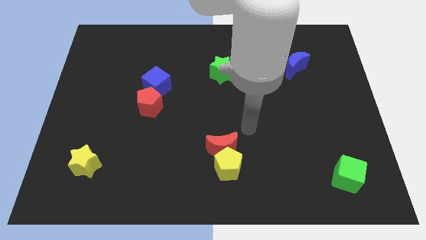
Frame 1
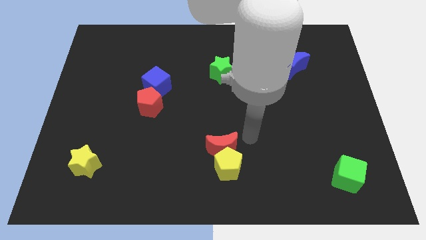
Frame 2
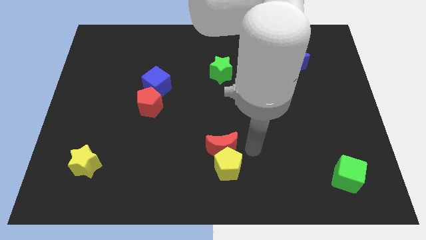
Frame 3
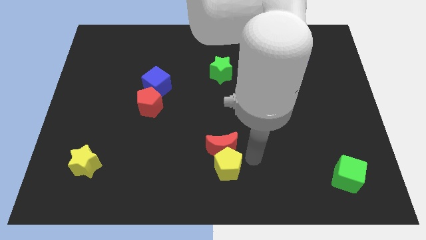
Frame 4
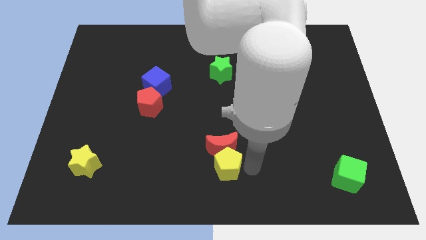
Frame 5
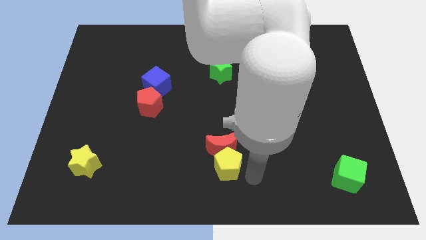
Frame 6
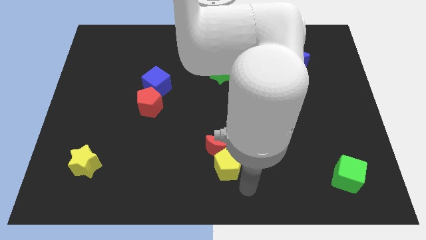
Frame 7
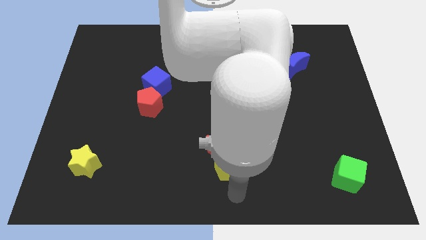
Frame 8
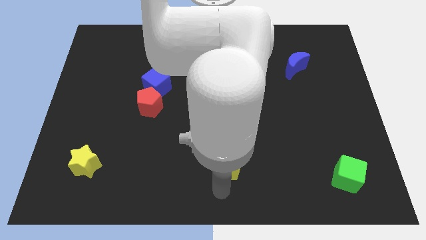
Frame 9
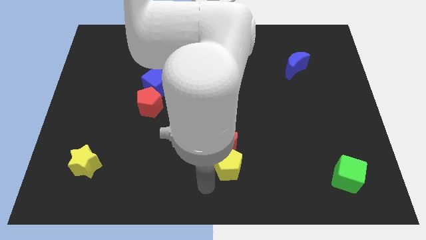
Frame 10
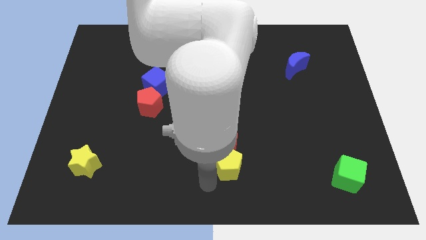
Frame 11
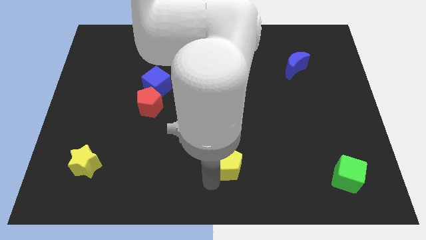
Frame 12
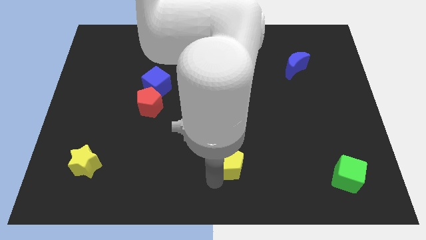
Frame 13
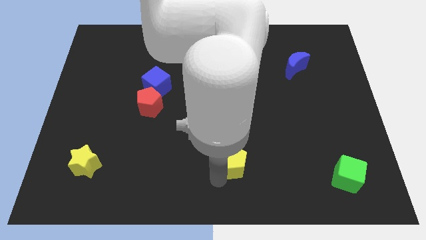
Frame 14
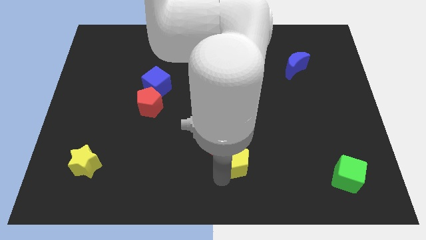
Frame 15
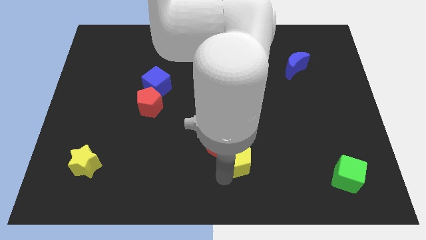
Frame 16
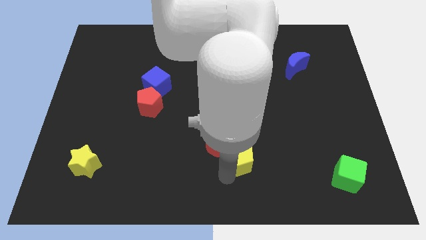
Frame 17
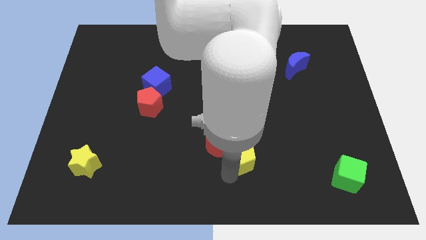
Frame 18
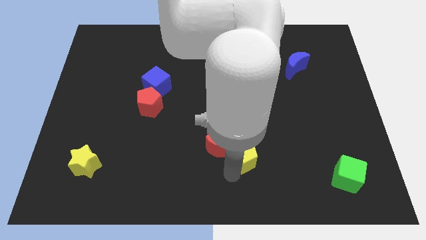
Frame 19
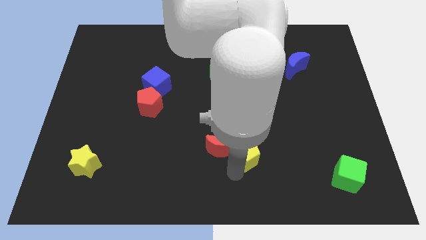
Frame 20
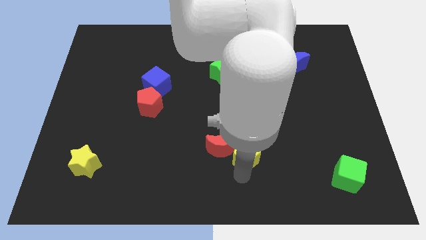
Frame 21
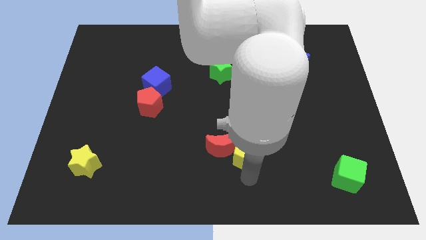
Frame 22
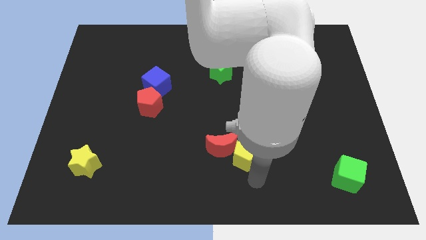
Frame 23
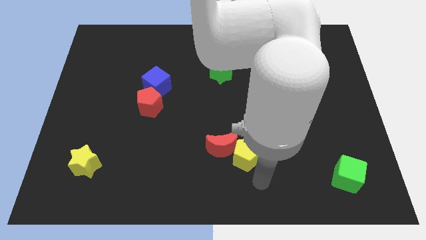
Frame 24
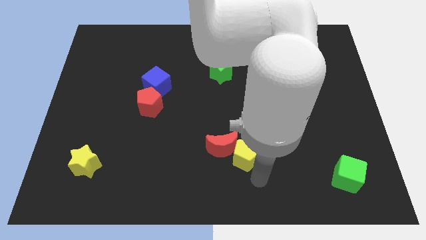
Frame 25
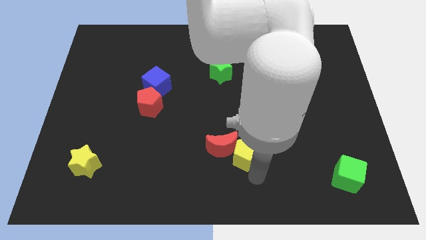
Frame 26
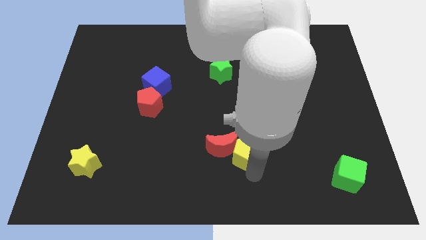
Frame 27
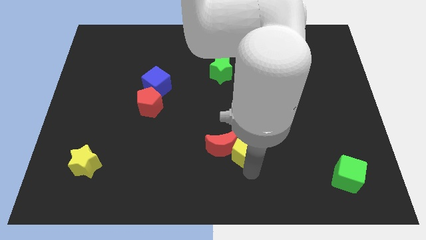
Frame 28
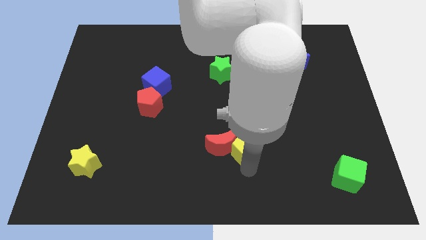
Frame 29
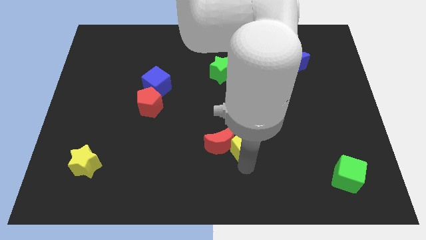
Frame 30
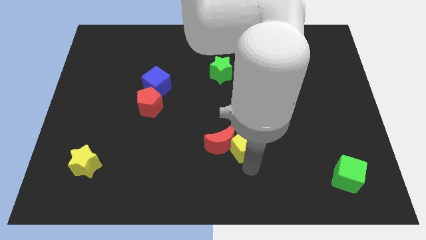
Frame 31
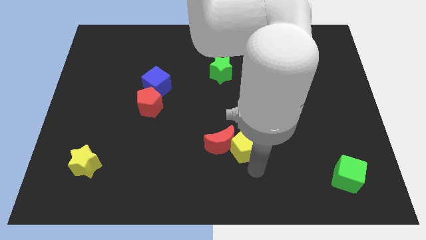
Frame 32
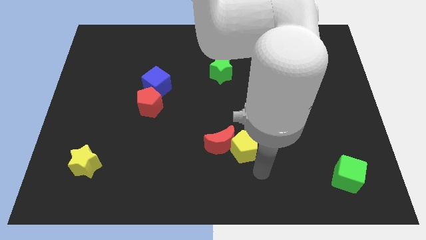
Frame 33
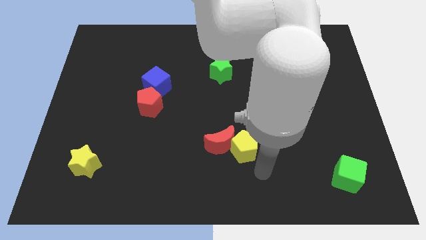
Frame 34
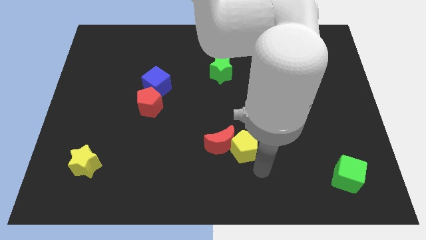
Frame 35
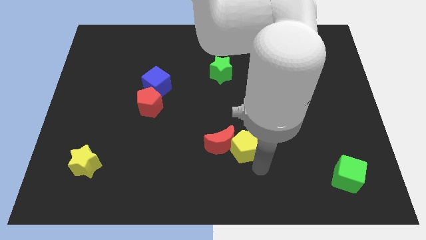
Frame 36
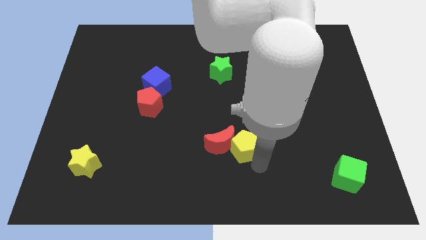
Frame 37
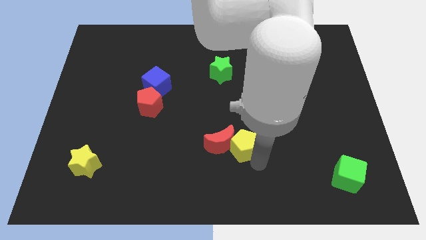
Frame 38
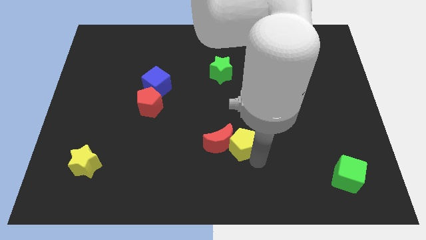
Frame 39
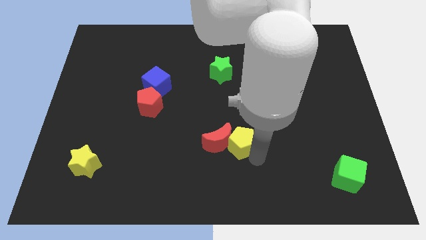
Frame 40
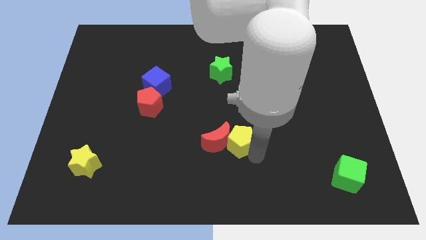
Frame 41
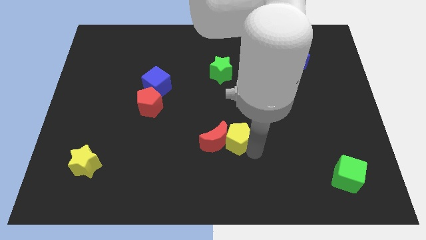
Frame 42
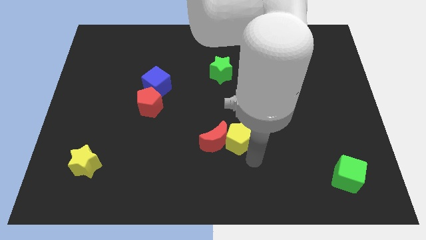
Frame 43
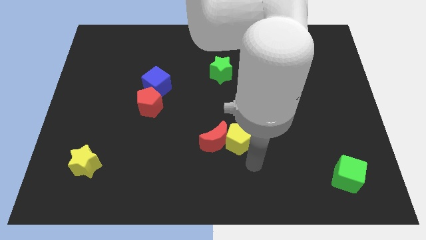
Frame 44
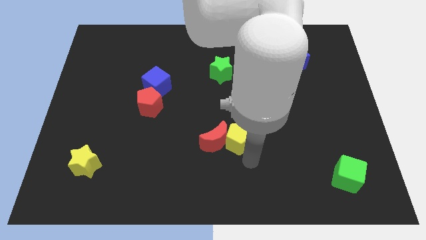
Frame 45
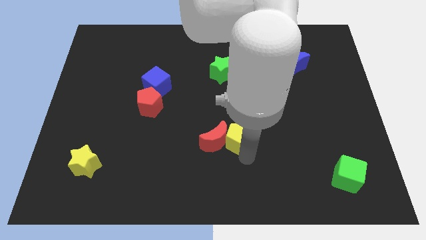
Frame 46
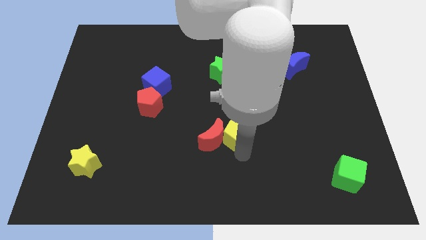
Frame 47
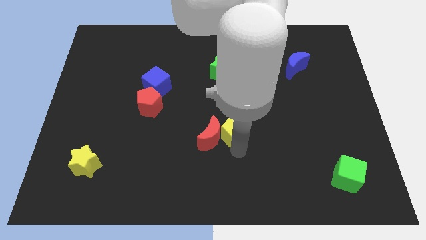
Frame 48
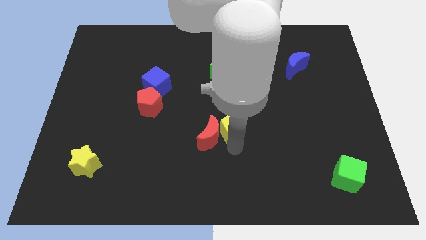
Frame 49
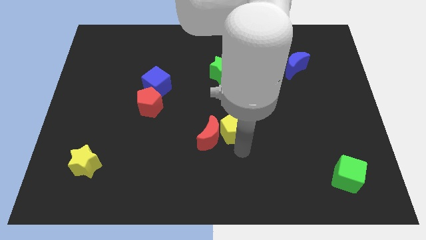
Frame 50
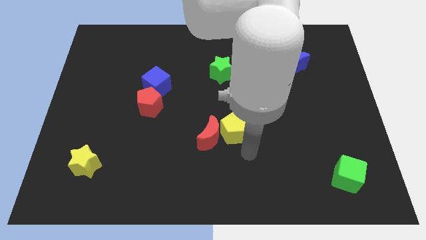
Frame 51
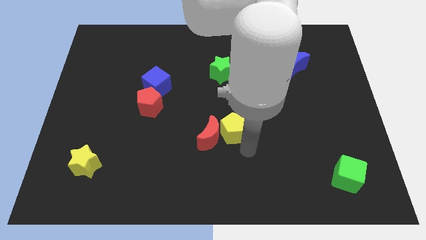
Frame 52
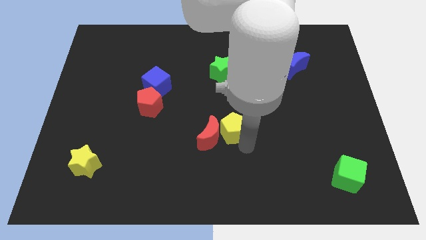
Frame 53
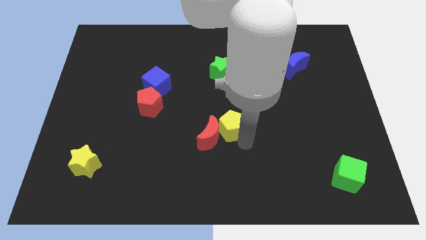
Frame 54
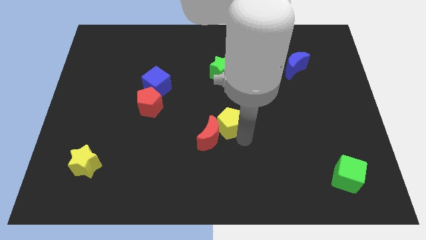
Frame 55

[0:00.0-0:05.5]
put the yellow pentagon to the top of the red moon

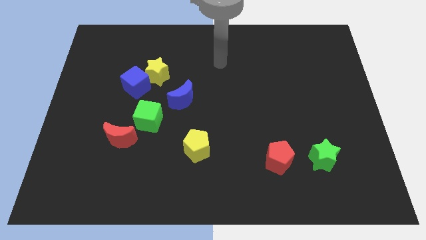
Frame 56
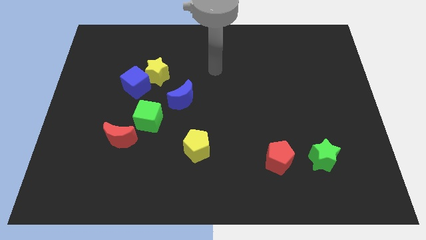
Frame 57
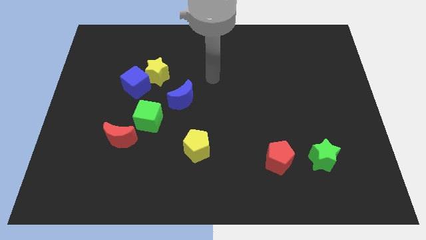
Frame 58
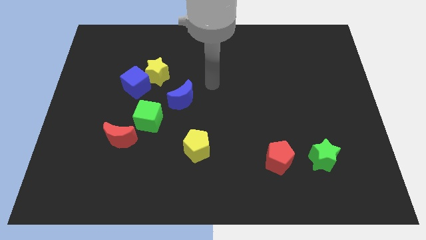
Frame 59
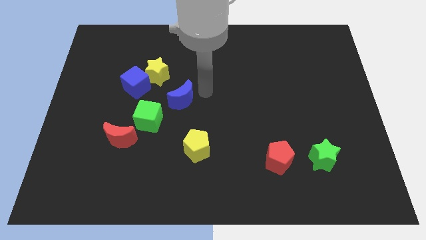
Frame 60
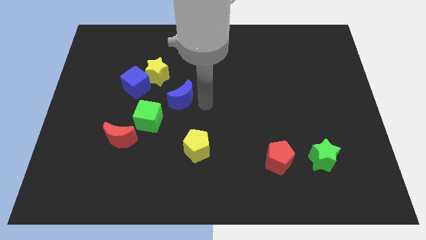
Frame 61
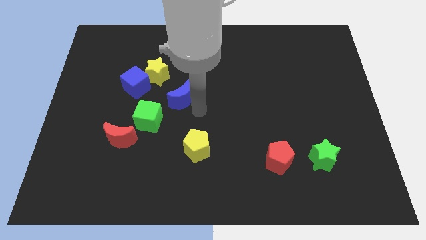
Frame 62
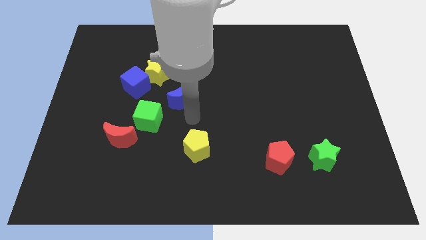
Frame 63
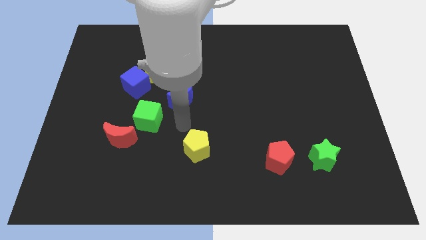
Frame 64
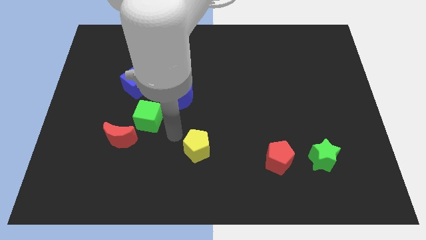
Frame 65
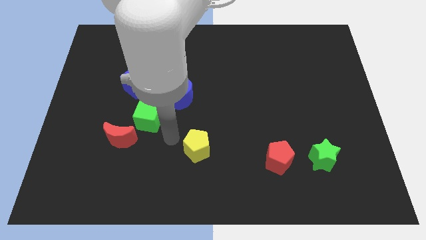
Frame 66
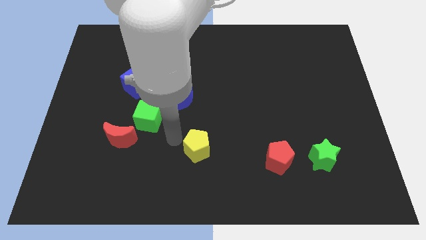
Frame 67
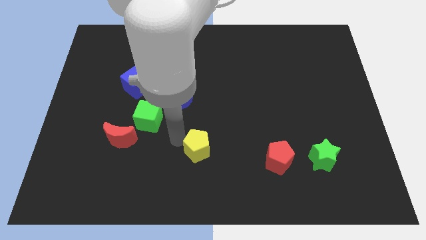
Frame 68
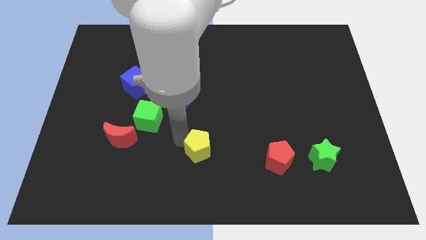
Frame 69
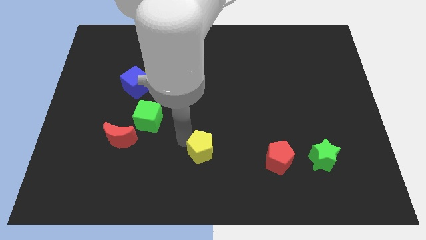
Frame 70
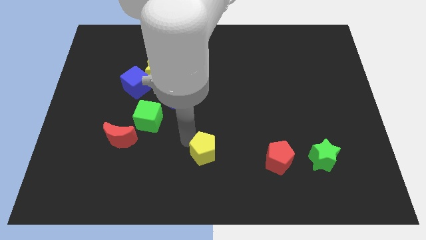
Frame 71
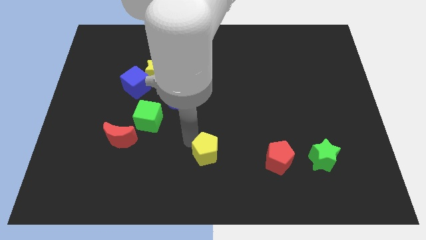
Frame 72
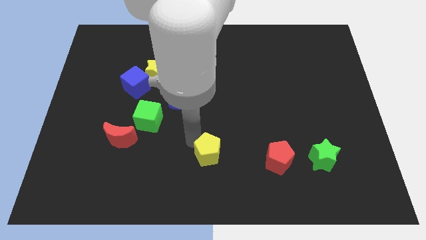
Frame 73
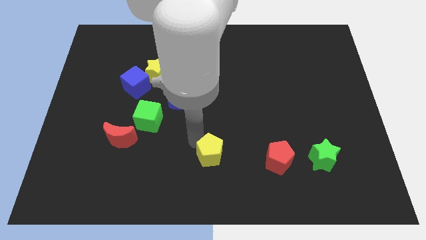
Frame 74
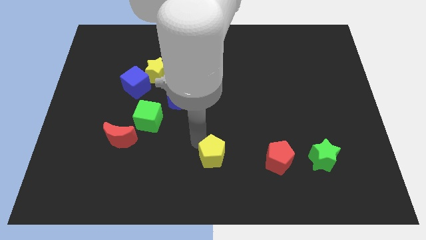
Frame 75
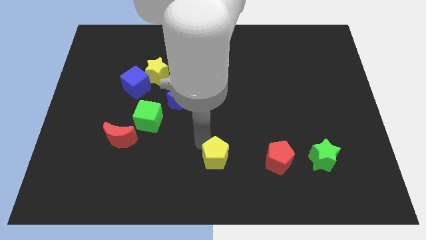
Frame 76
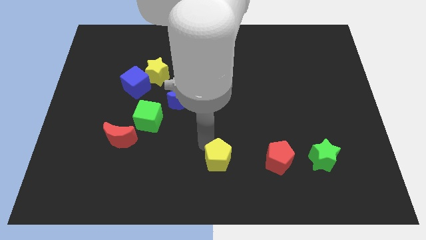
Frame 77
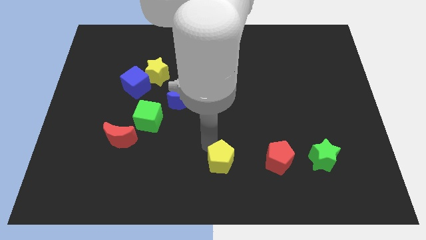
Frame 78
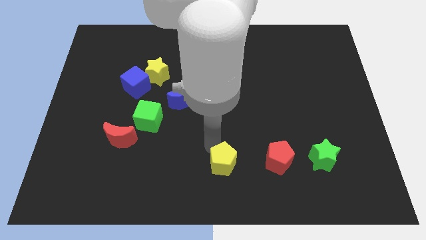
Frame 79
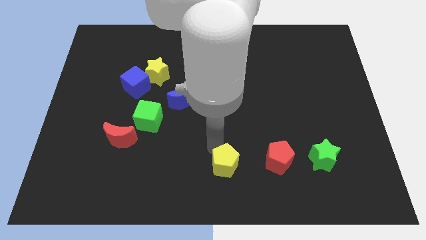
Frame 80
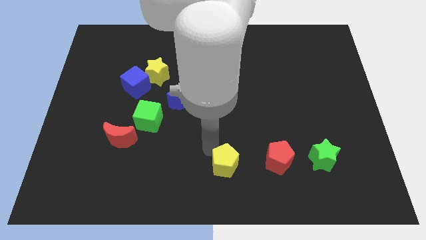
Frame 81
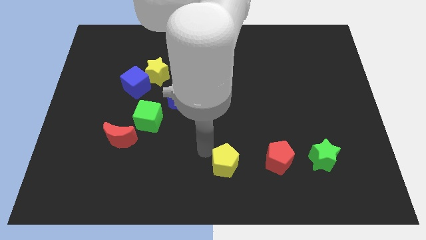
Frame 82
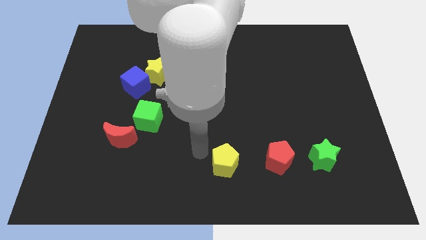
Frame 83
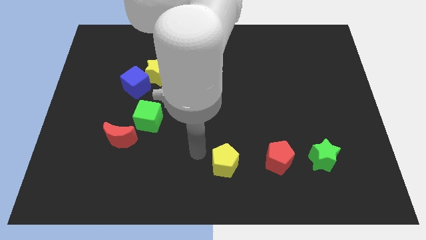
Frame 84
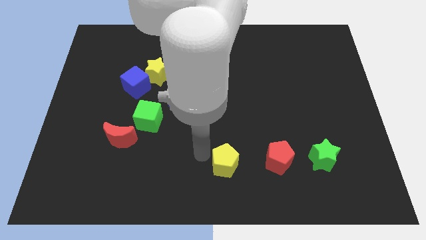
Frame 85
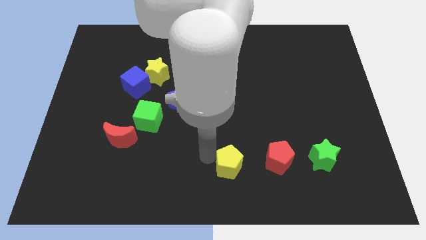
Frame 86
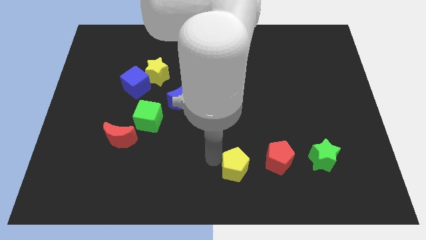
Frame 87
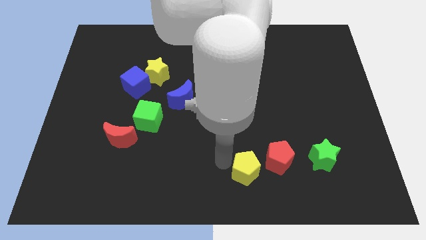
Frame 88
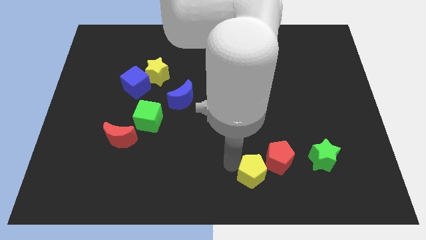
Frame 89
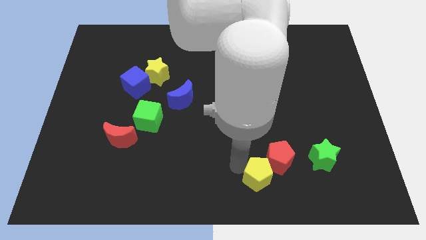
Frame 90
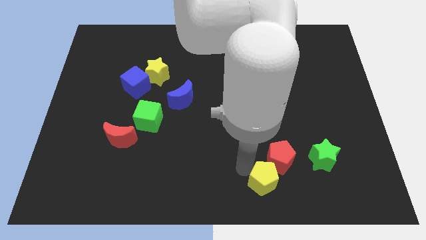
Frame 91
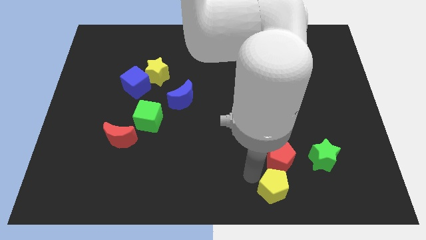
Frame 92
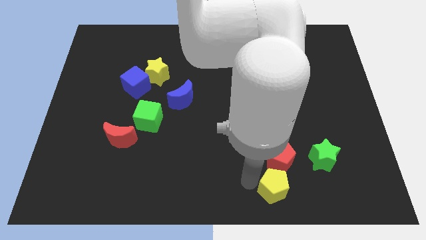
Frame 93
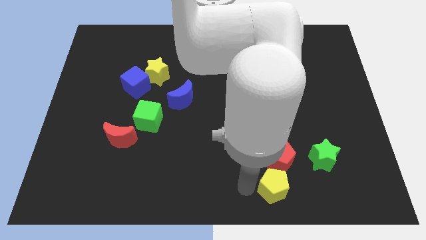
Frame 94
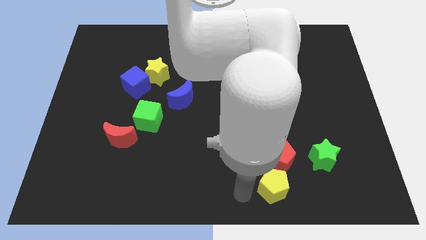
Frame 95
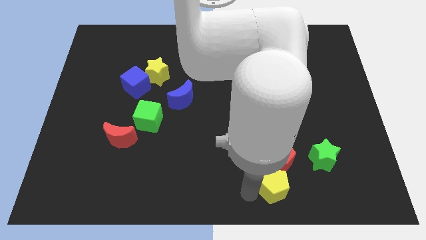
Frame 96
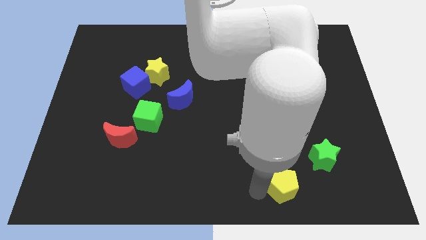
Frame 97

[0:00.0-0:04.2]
slide the yellow pentagon diagonally down and to the left of the green star
